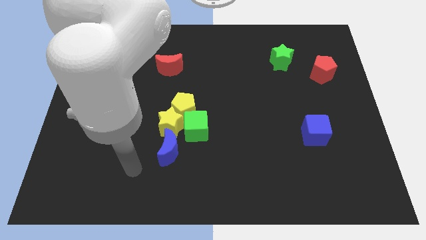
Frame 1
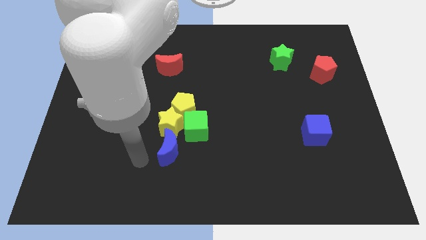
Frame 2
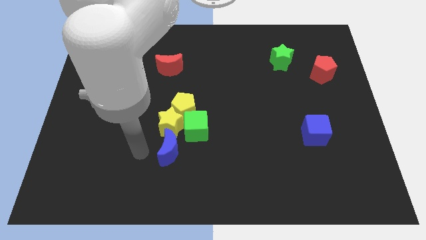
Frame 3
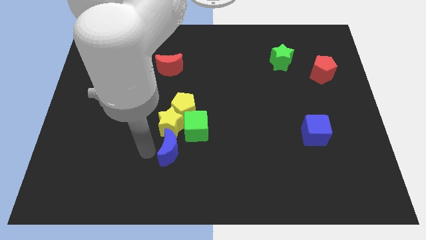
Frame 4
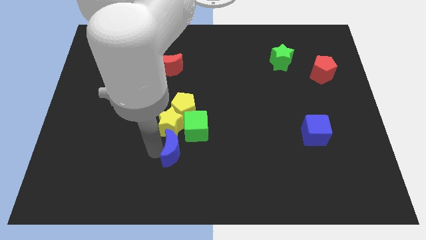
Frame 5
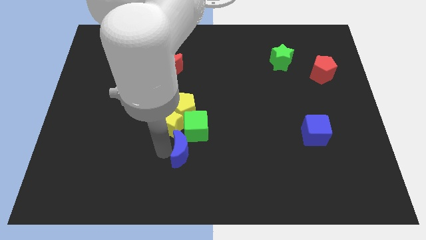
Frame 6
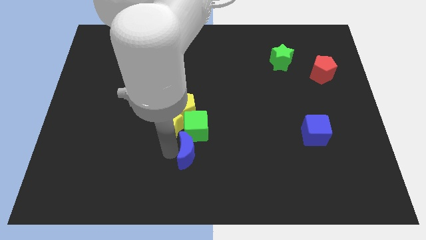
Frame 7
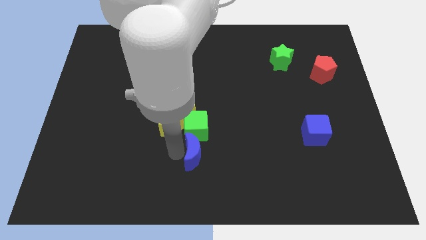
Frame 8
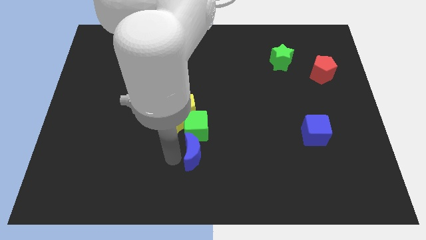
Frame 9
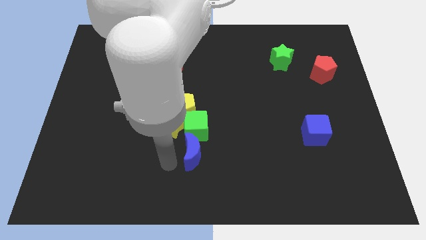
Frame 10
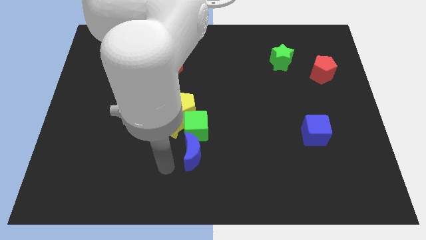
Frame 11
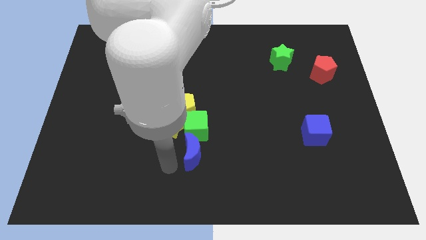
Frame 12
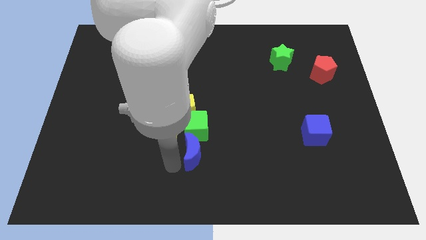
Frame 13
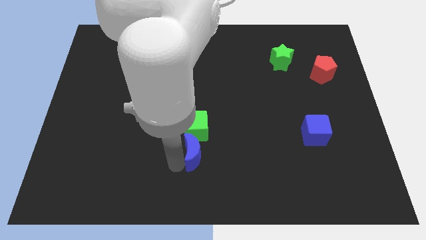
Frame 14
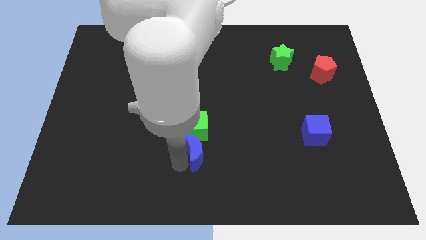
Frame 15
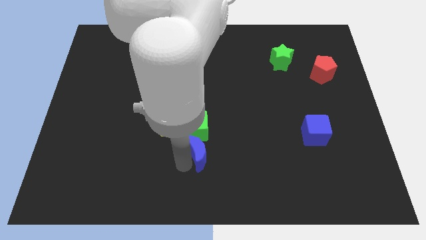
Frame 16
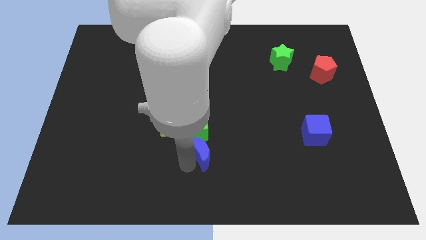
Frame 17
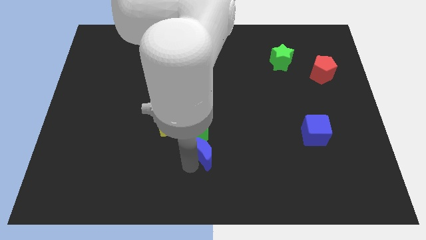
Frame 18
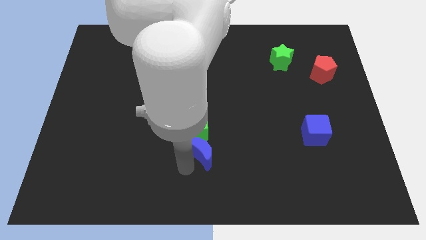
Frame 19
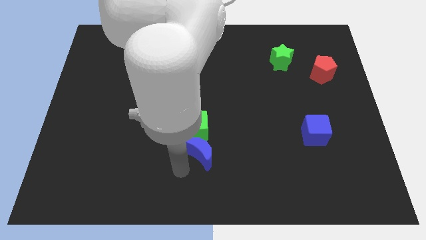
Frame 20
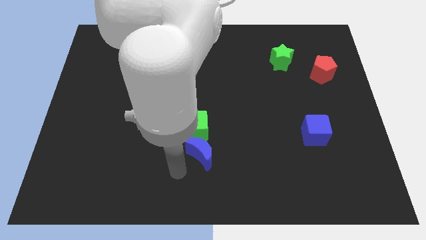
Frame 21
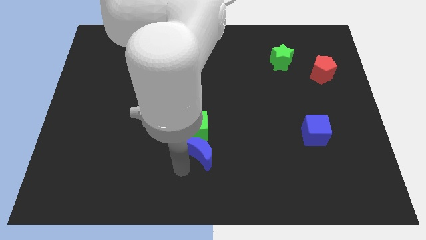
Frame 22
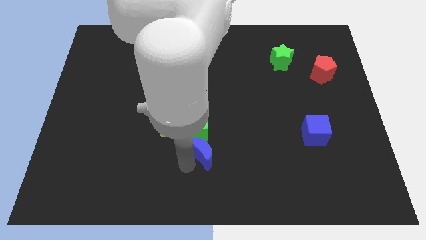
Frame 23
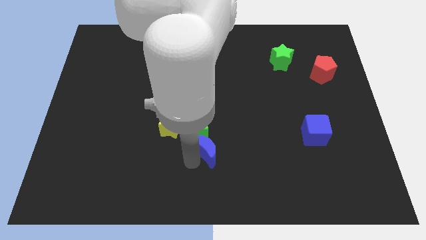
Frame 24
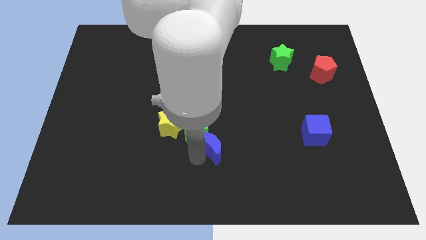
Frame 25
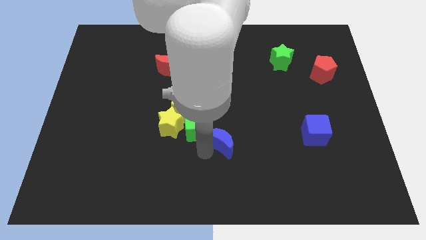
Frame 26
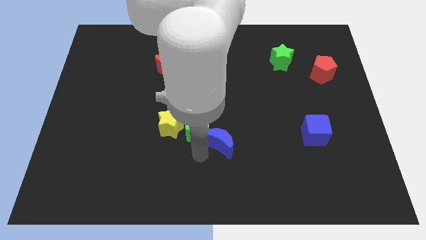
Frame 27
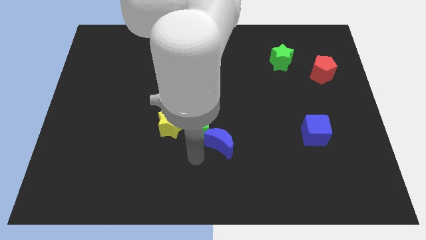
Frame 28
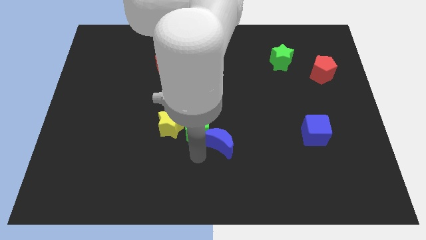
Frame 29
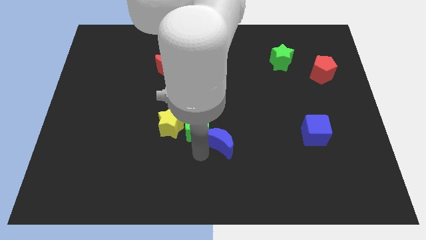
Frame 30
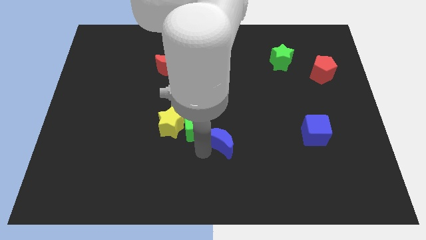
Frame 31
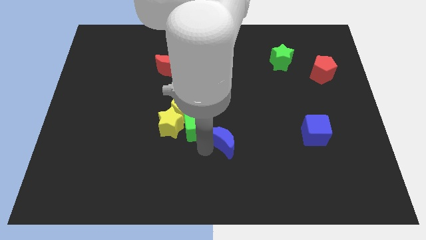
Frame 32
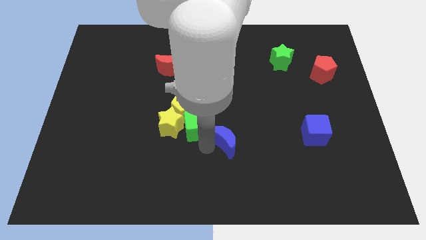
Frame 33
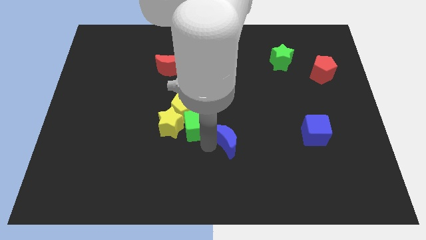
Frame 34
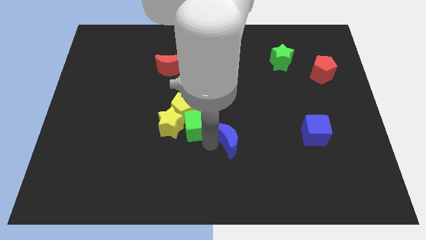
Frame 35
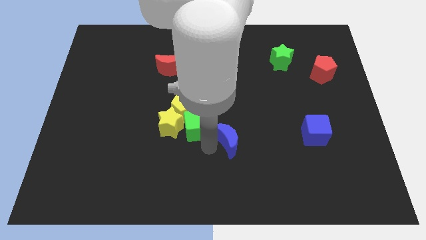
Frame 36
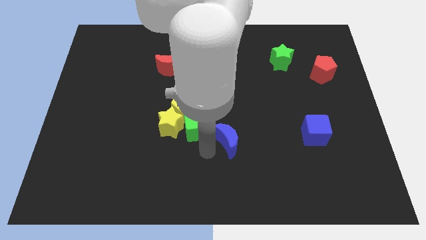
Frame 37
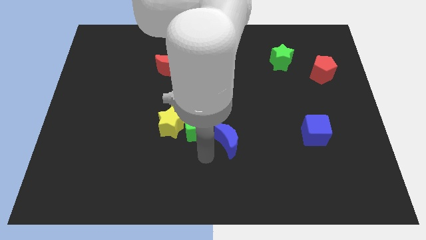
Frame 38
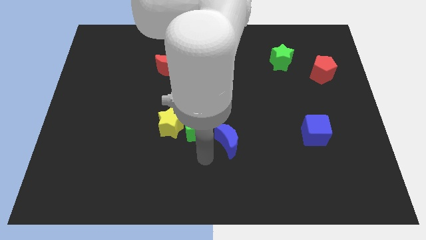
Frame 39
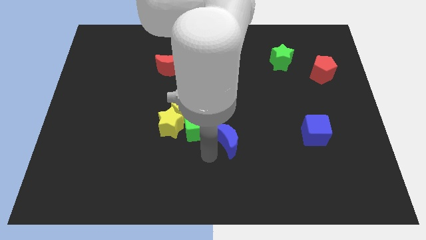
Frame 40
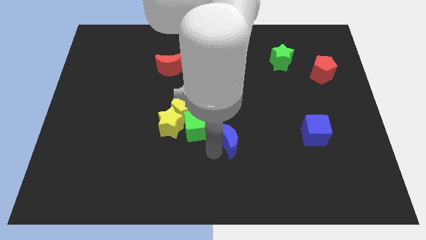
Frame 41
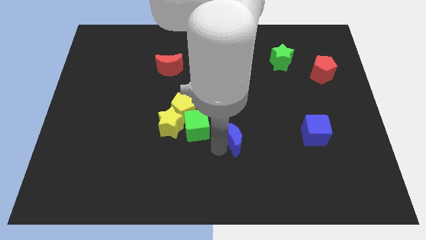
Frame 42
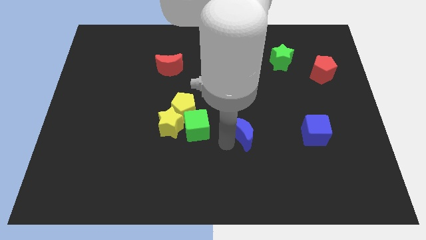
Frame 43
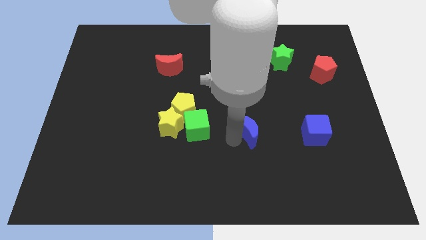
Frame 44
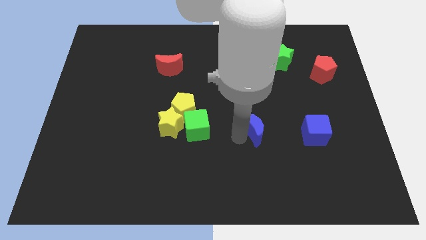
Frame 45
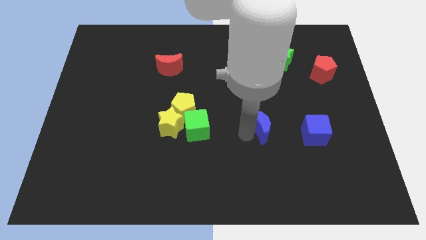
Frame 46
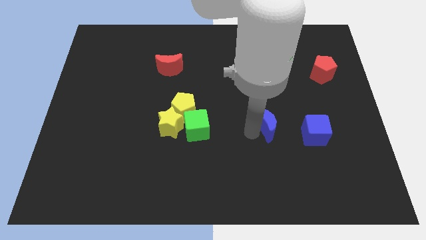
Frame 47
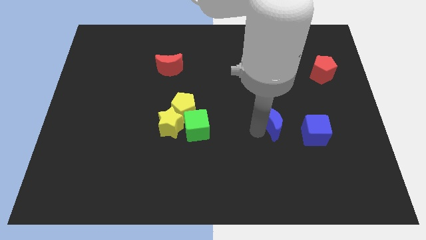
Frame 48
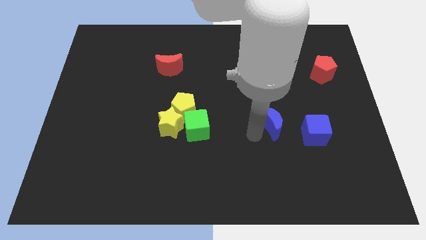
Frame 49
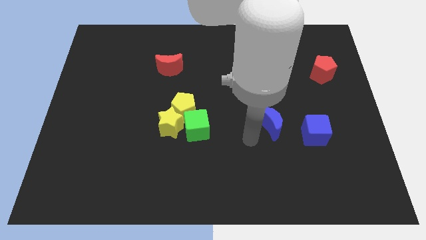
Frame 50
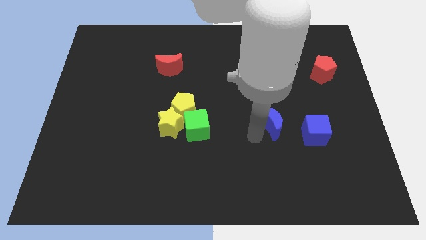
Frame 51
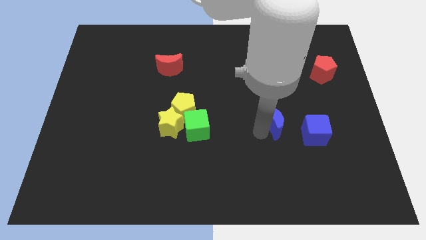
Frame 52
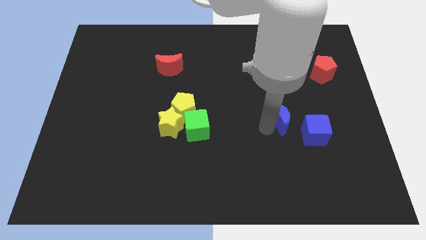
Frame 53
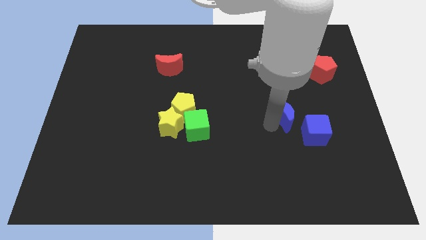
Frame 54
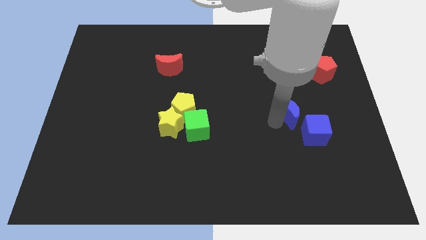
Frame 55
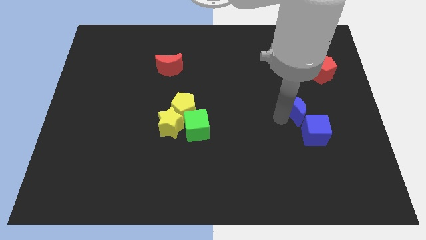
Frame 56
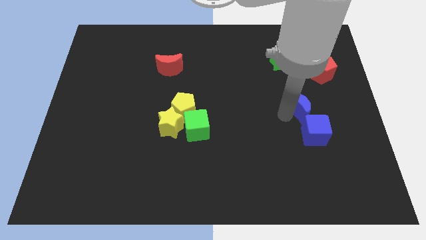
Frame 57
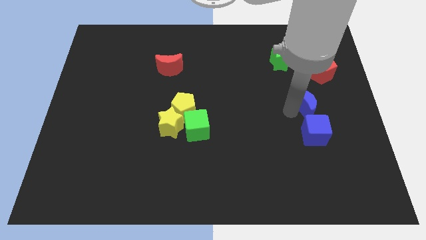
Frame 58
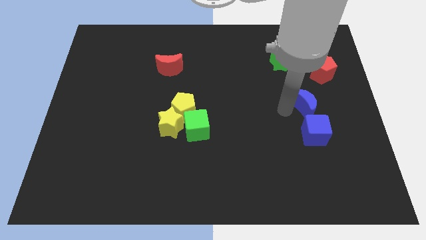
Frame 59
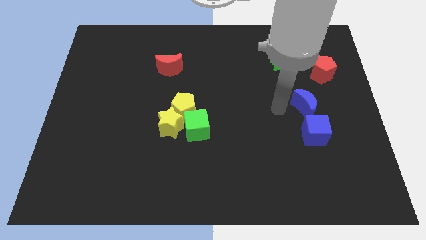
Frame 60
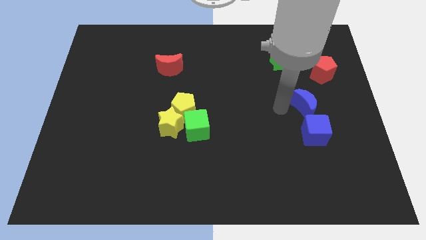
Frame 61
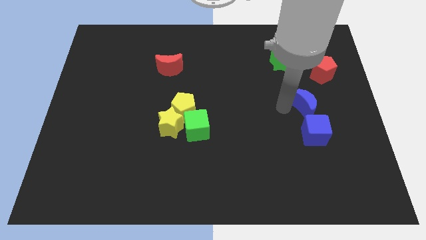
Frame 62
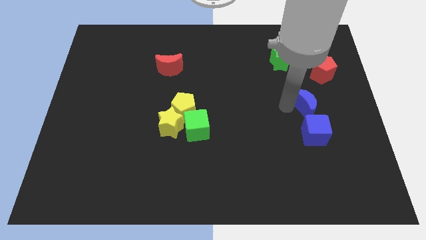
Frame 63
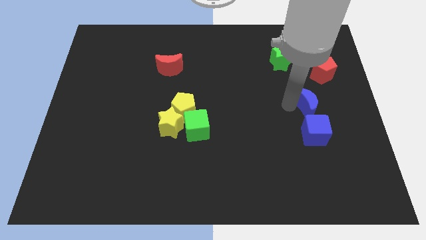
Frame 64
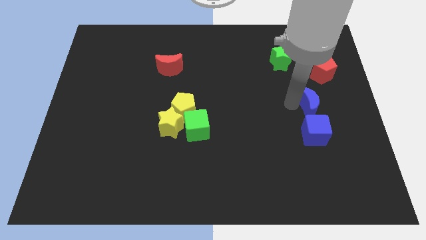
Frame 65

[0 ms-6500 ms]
push the blue moon below the red pentagon
